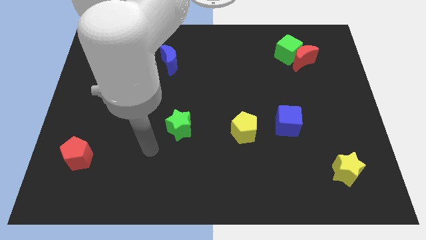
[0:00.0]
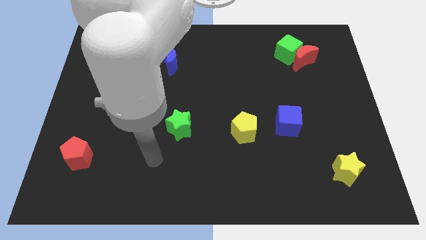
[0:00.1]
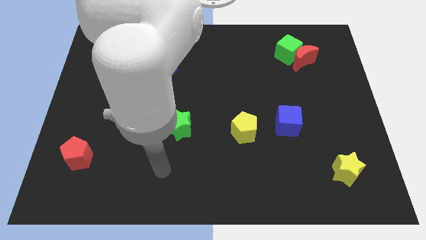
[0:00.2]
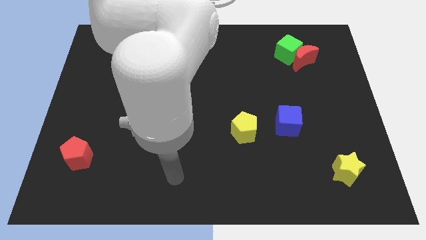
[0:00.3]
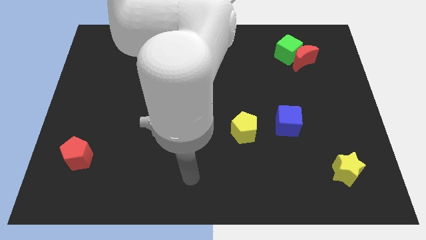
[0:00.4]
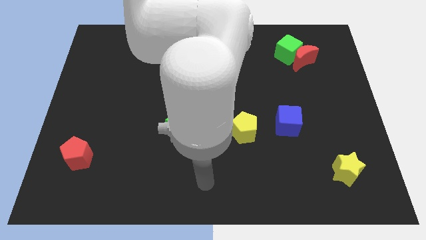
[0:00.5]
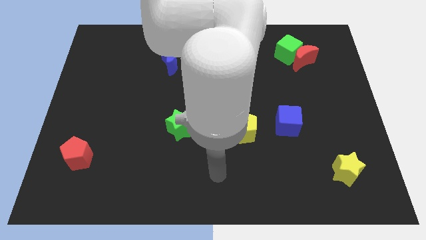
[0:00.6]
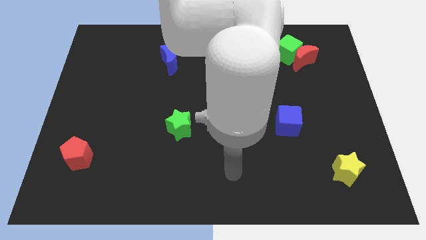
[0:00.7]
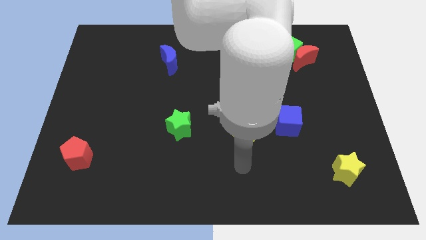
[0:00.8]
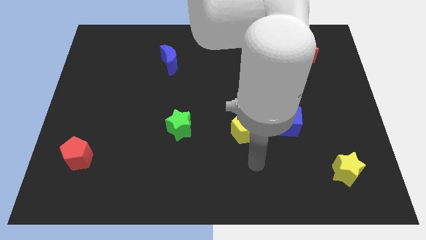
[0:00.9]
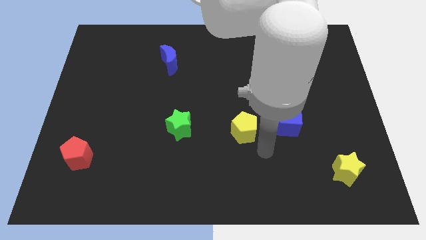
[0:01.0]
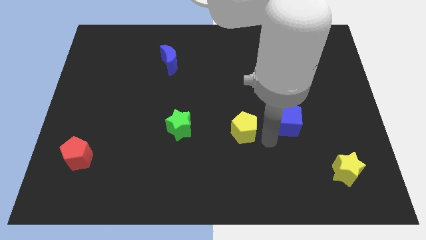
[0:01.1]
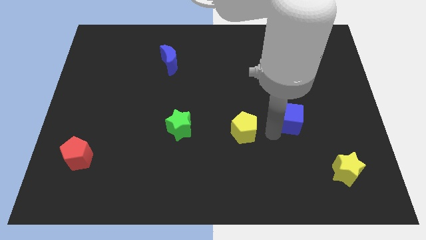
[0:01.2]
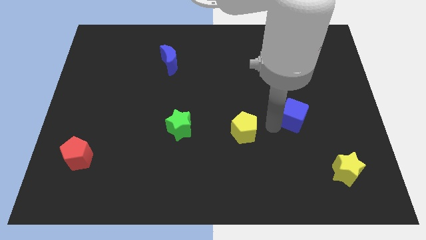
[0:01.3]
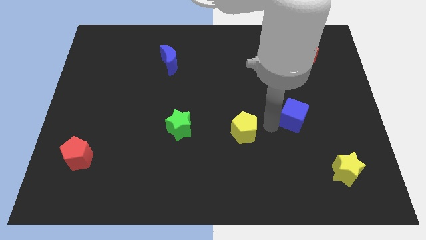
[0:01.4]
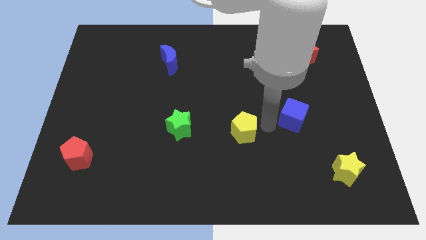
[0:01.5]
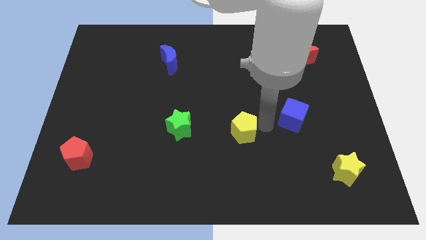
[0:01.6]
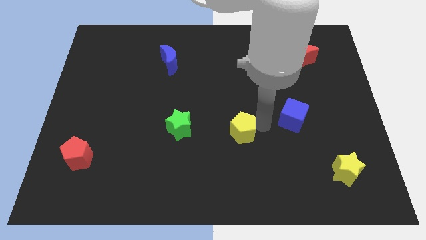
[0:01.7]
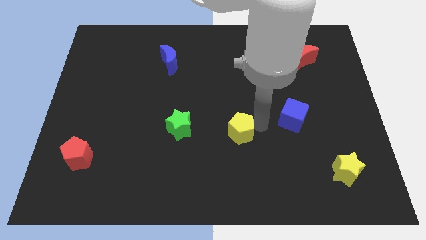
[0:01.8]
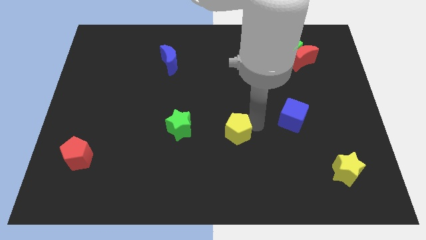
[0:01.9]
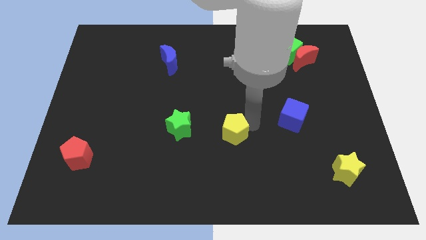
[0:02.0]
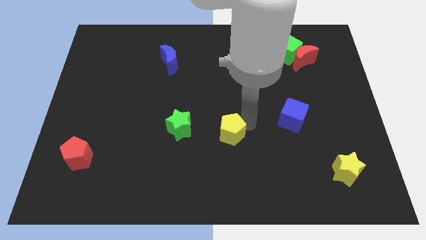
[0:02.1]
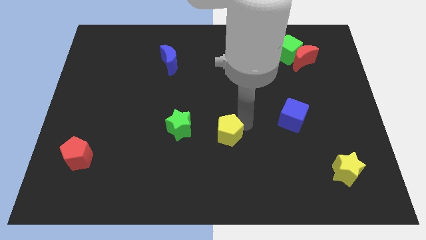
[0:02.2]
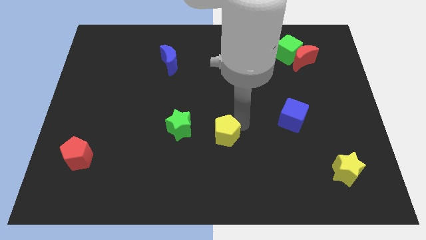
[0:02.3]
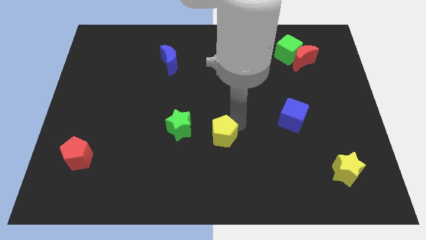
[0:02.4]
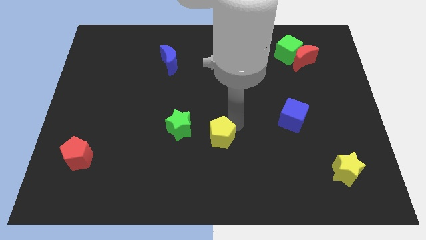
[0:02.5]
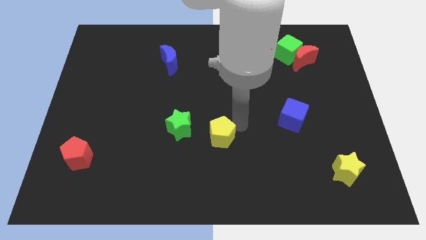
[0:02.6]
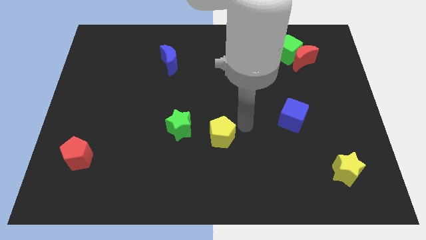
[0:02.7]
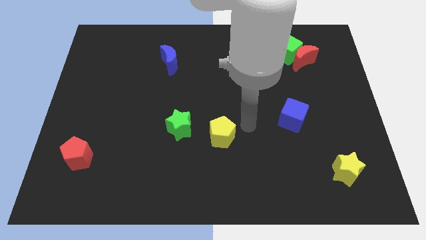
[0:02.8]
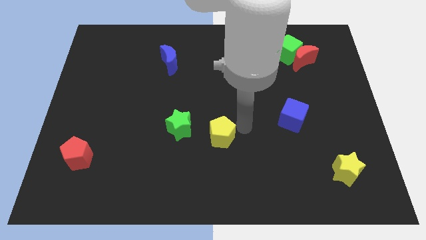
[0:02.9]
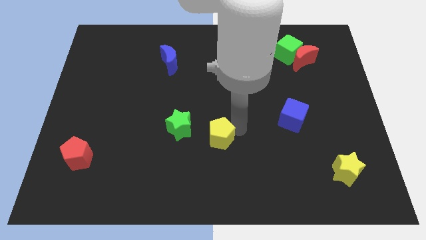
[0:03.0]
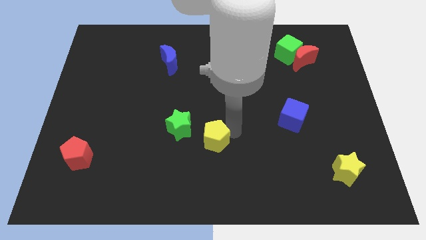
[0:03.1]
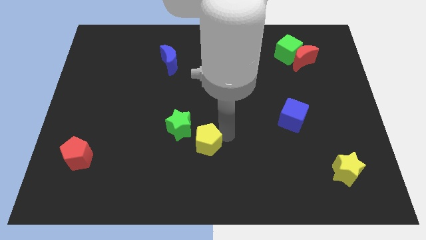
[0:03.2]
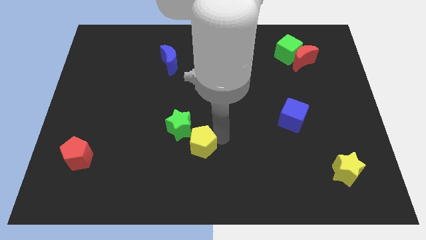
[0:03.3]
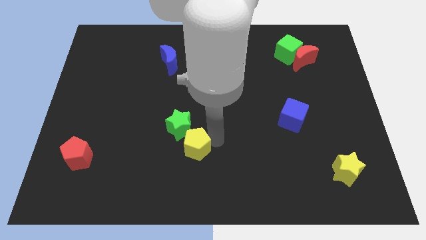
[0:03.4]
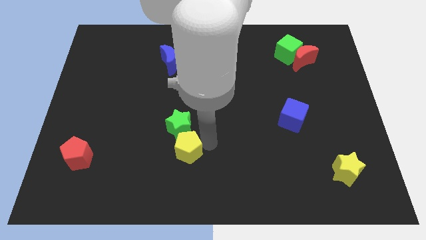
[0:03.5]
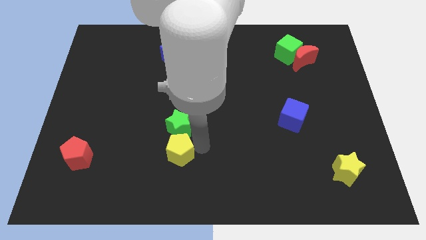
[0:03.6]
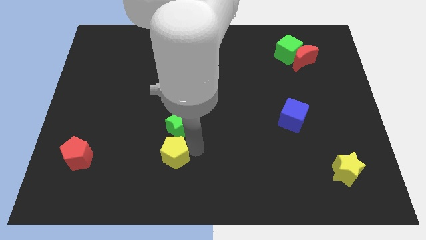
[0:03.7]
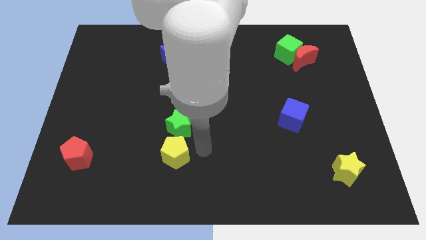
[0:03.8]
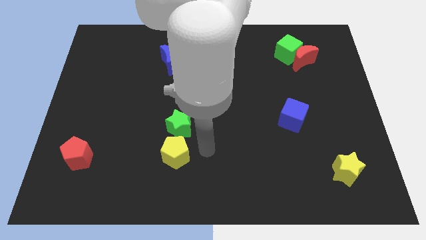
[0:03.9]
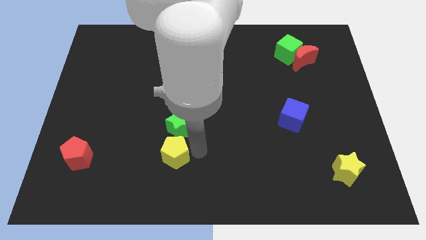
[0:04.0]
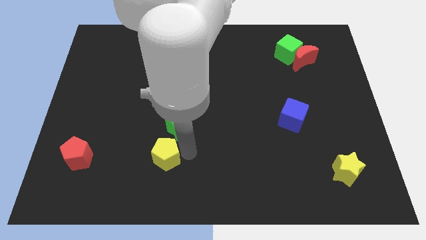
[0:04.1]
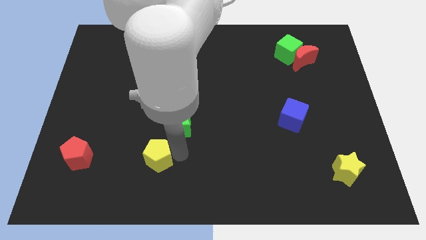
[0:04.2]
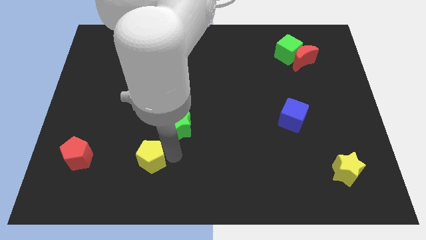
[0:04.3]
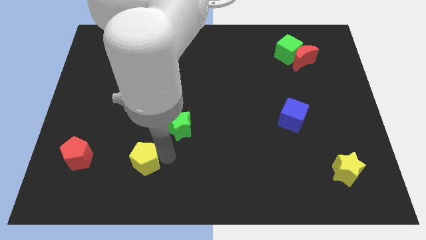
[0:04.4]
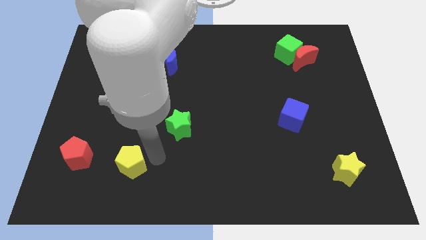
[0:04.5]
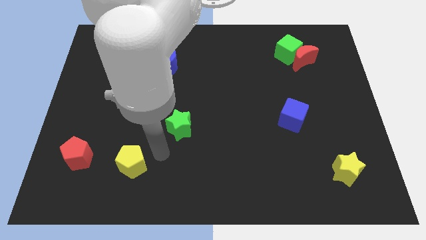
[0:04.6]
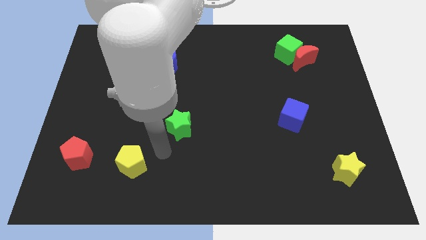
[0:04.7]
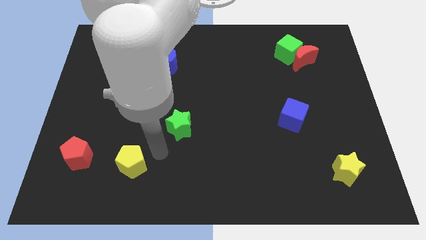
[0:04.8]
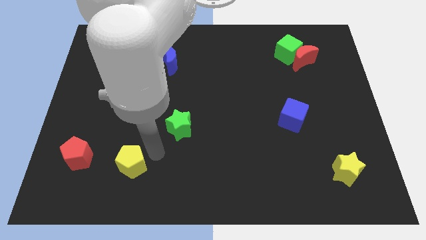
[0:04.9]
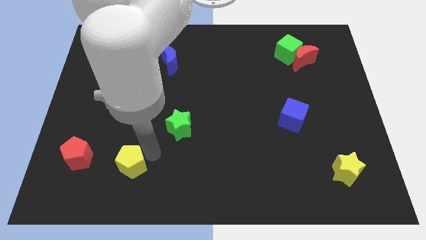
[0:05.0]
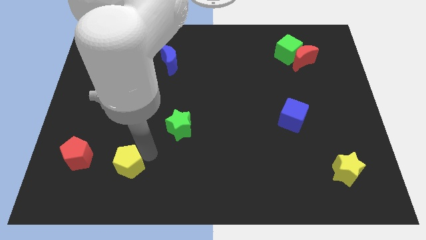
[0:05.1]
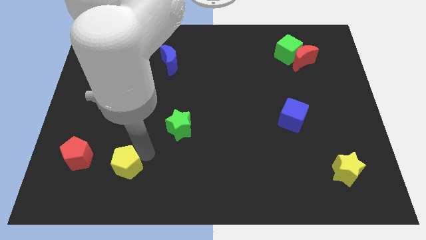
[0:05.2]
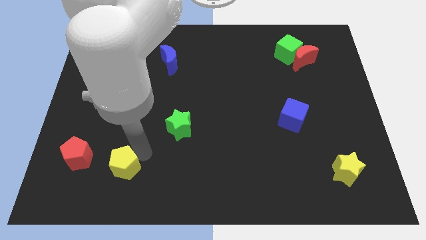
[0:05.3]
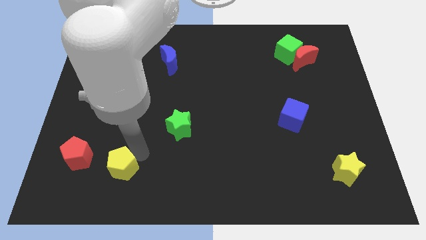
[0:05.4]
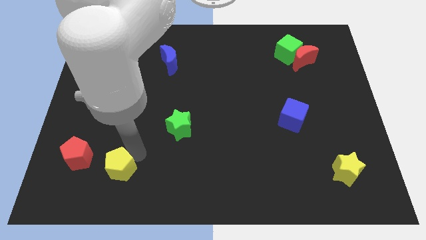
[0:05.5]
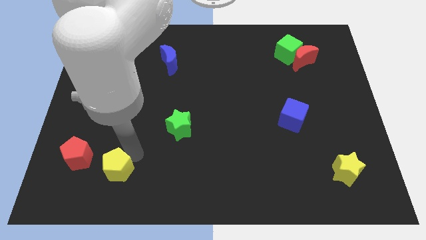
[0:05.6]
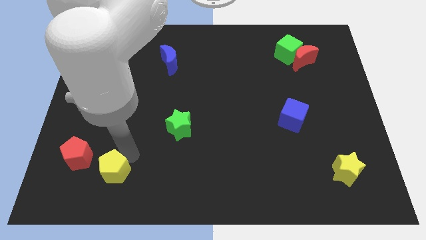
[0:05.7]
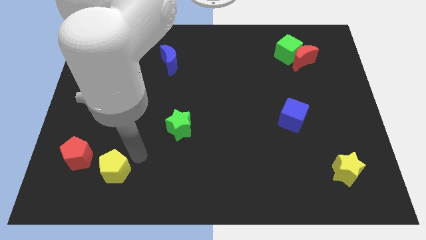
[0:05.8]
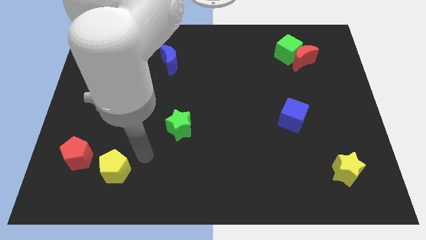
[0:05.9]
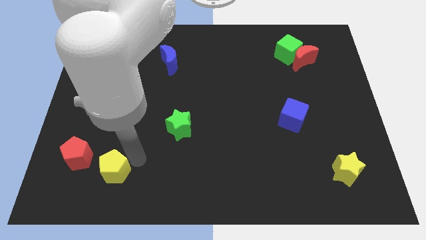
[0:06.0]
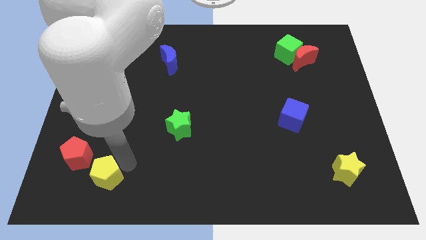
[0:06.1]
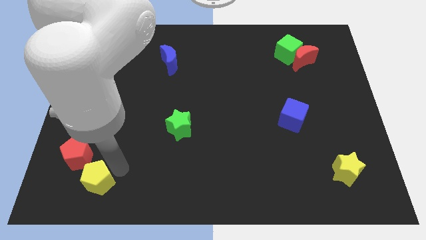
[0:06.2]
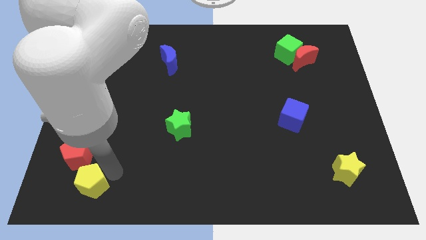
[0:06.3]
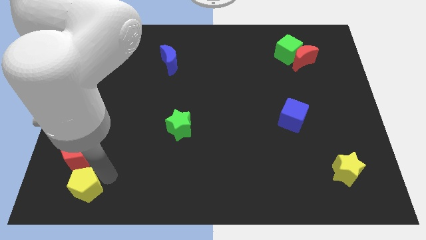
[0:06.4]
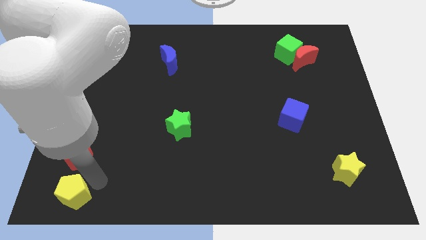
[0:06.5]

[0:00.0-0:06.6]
move the yellow pentagon to the bottom left of the board
